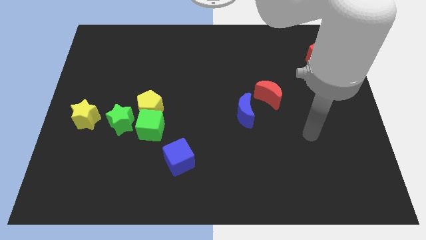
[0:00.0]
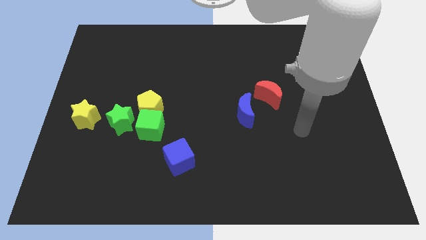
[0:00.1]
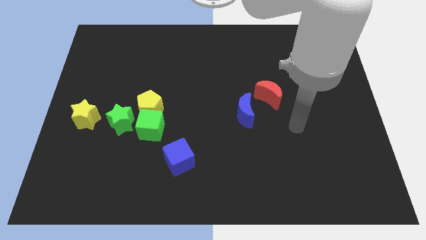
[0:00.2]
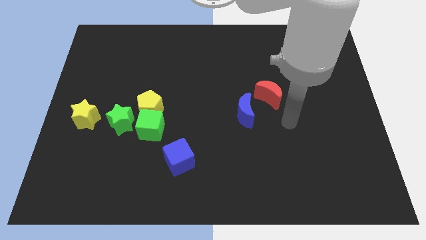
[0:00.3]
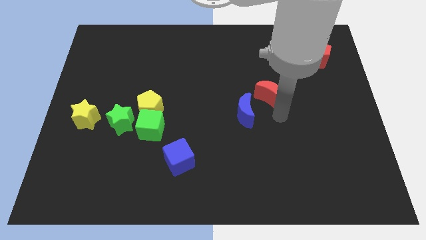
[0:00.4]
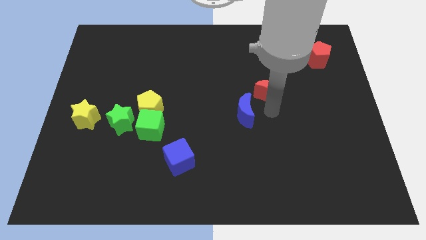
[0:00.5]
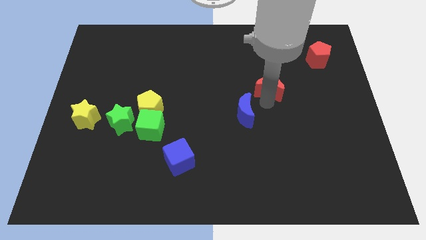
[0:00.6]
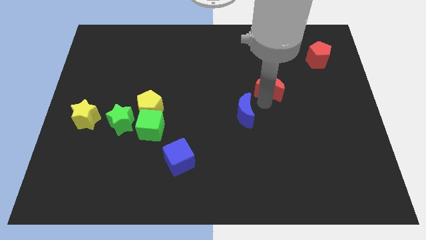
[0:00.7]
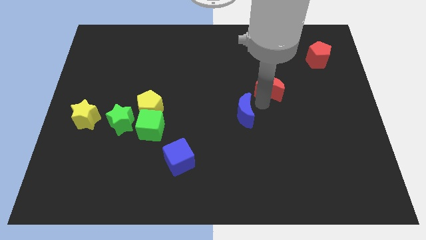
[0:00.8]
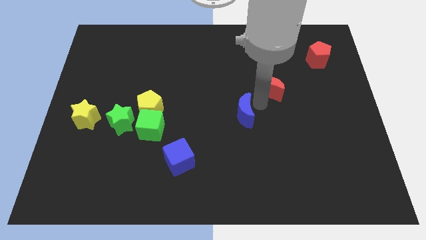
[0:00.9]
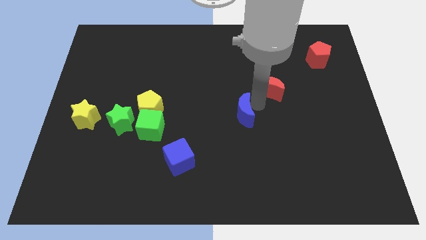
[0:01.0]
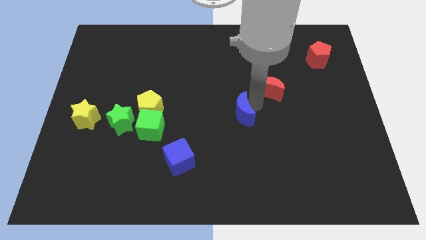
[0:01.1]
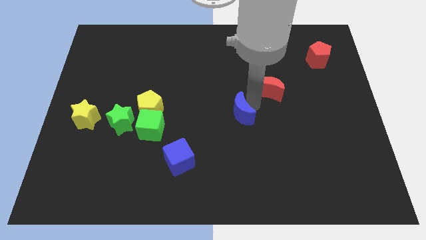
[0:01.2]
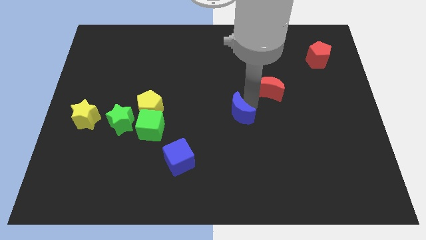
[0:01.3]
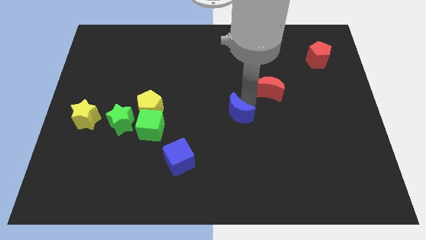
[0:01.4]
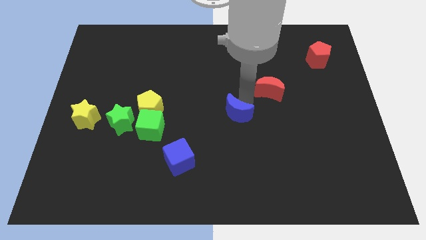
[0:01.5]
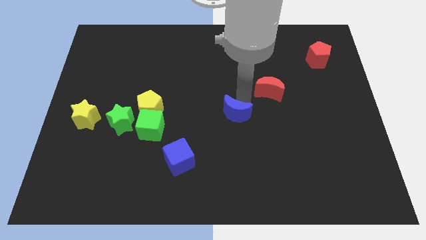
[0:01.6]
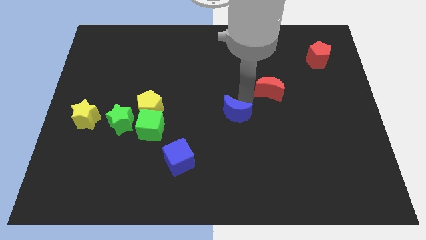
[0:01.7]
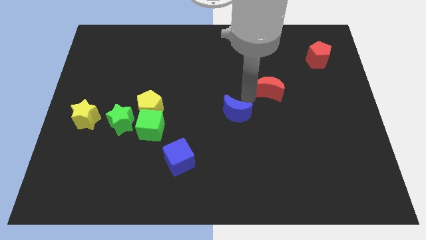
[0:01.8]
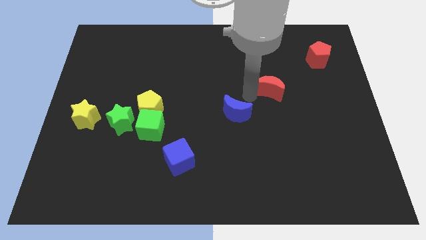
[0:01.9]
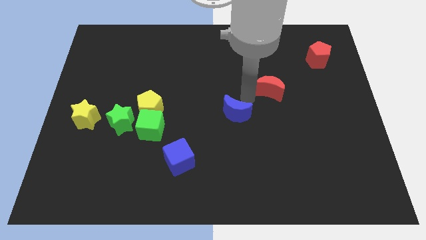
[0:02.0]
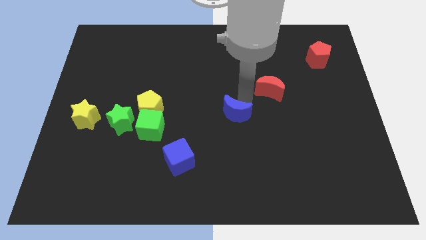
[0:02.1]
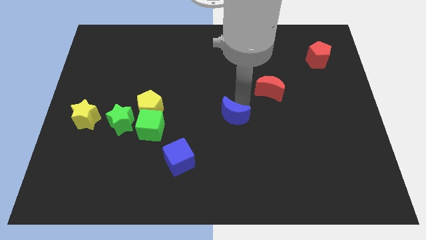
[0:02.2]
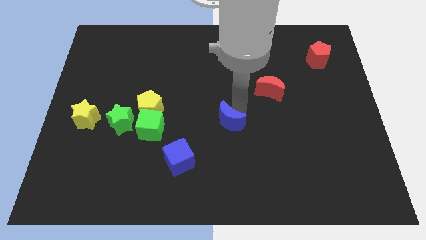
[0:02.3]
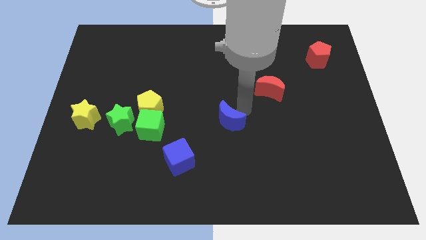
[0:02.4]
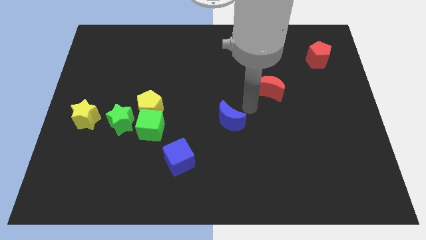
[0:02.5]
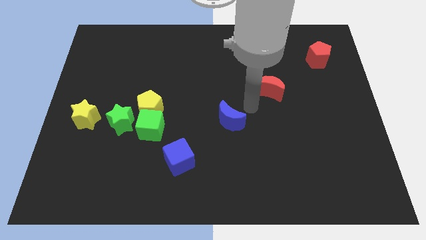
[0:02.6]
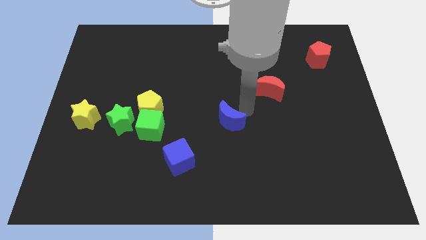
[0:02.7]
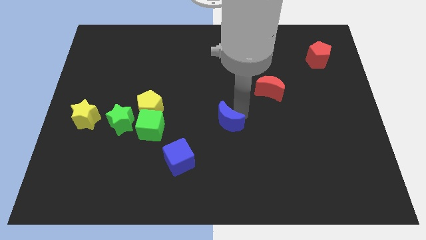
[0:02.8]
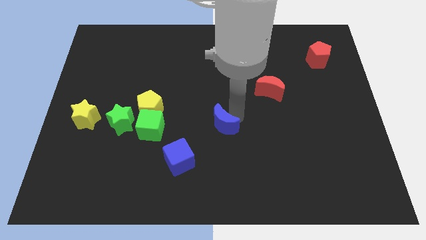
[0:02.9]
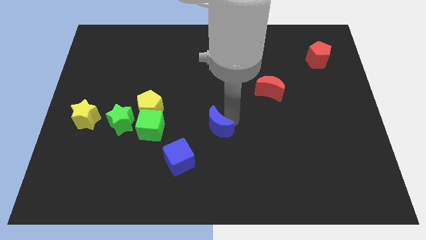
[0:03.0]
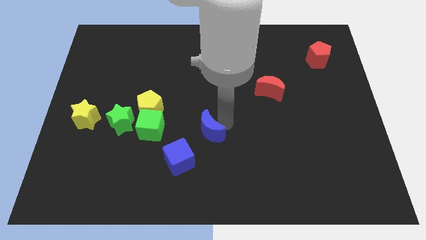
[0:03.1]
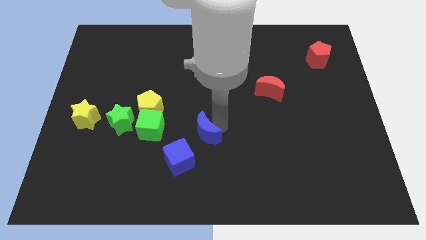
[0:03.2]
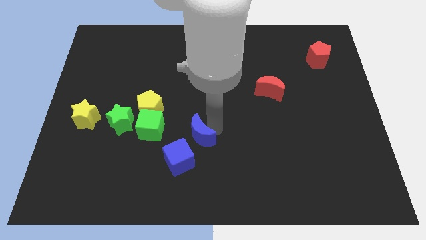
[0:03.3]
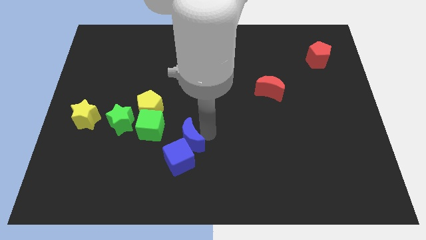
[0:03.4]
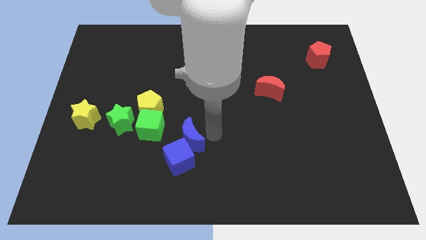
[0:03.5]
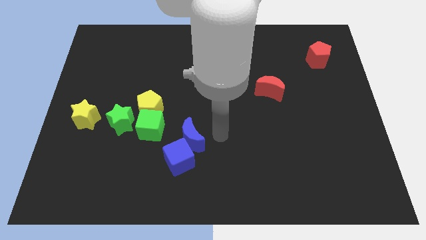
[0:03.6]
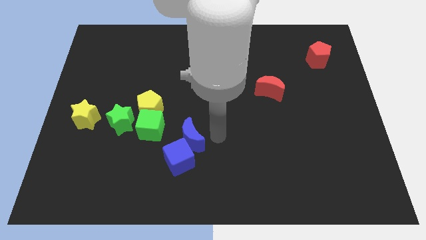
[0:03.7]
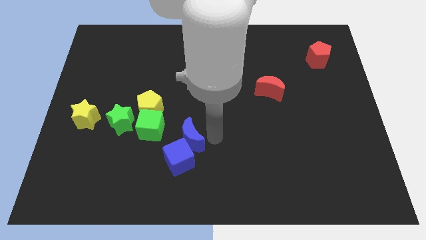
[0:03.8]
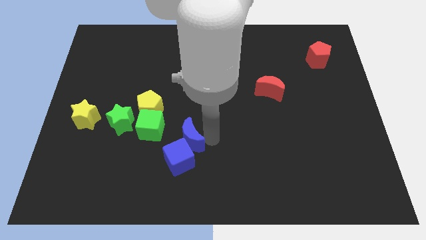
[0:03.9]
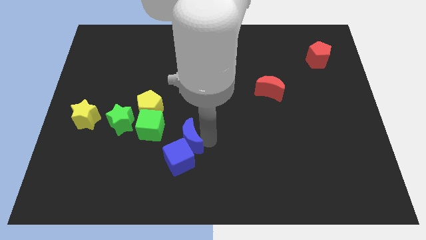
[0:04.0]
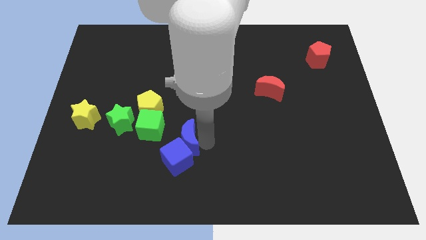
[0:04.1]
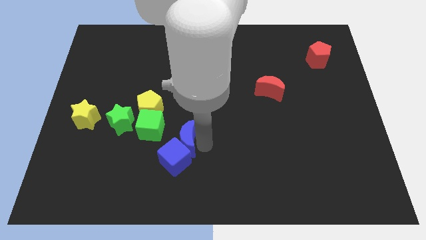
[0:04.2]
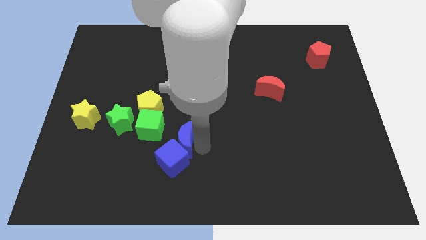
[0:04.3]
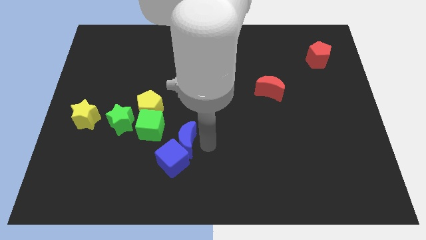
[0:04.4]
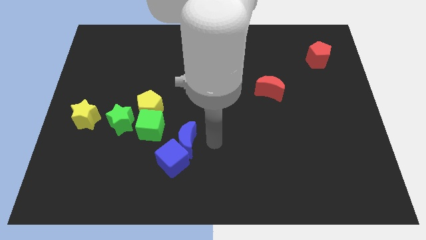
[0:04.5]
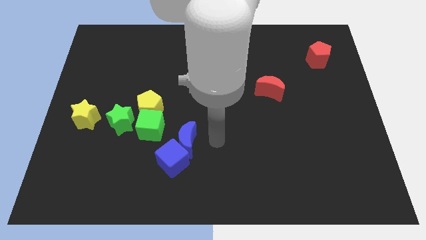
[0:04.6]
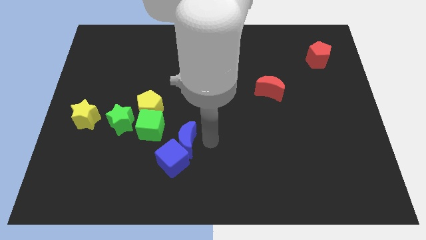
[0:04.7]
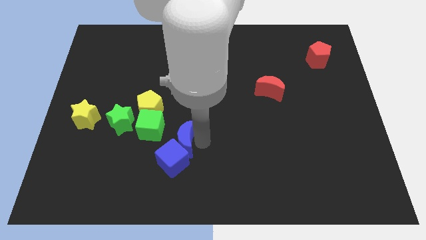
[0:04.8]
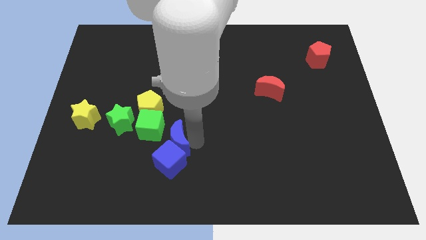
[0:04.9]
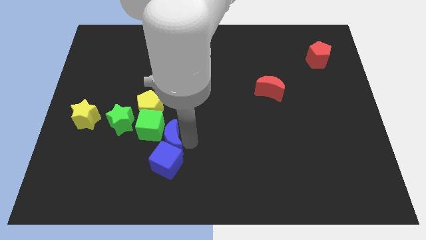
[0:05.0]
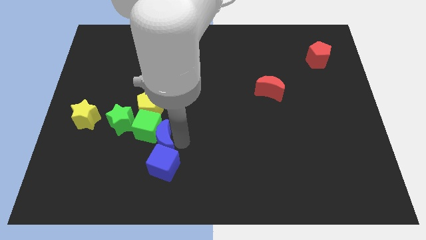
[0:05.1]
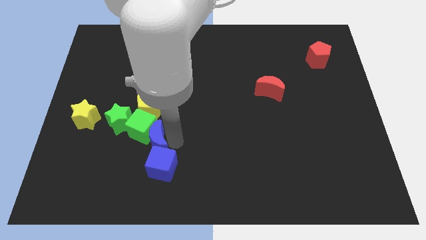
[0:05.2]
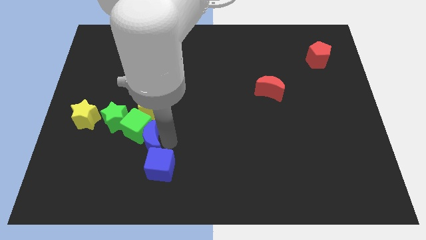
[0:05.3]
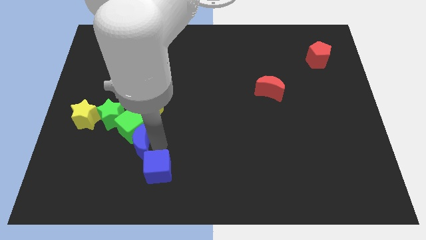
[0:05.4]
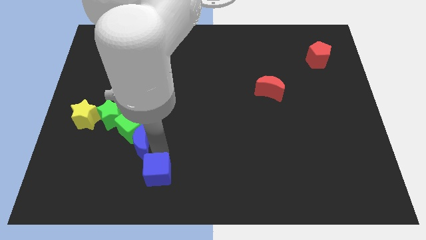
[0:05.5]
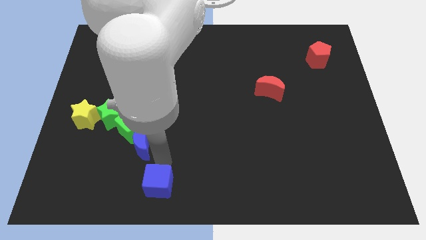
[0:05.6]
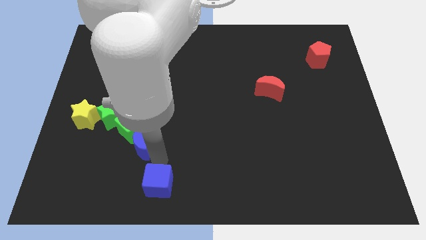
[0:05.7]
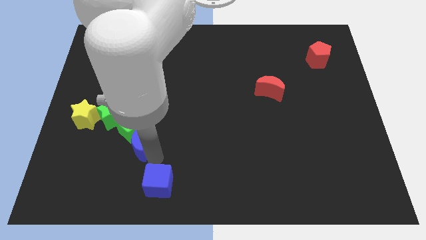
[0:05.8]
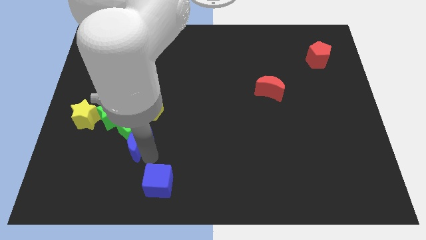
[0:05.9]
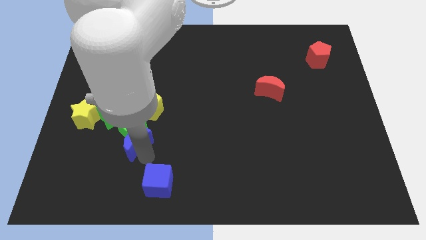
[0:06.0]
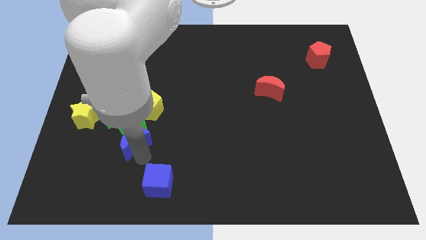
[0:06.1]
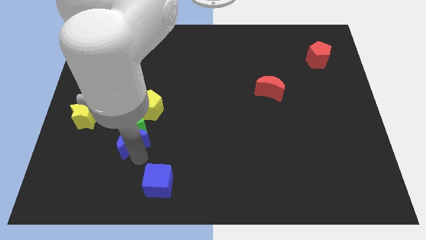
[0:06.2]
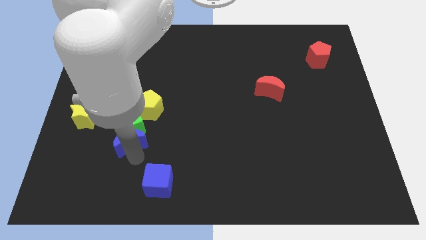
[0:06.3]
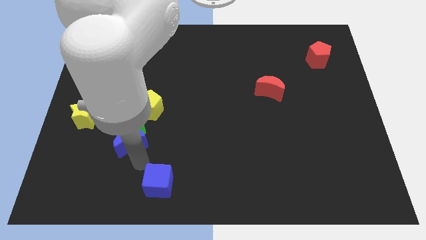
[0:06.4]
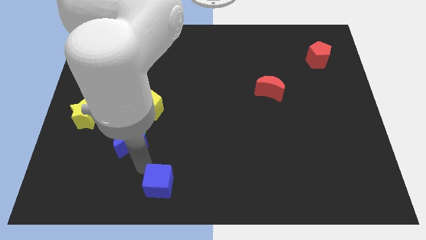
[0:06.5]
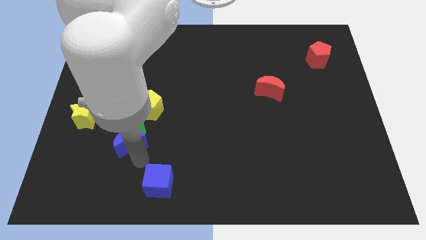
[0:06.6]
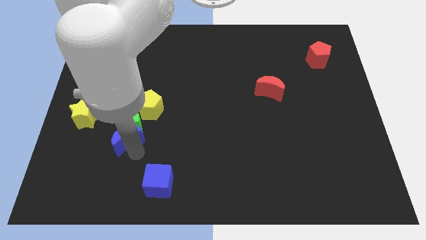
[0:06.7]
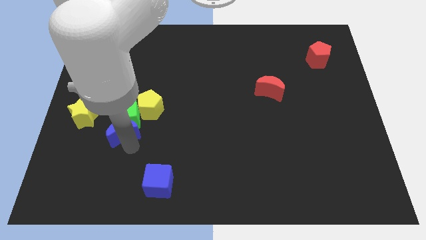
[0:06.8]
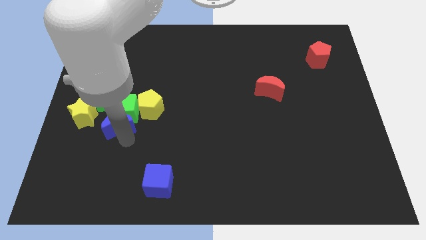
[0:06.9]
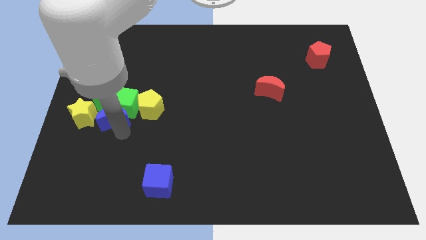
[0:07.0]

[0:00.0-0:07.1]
push the blue moon close to the green star

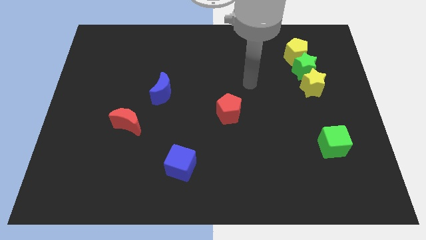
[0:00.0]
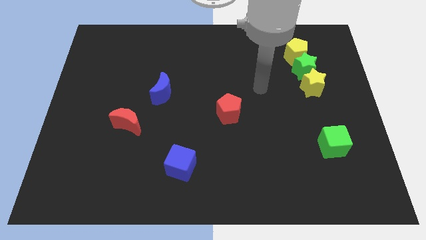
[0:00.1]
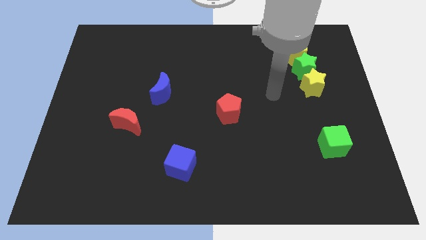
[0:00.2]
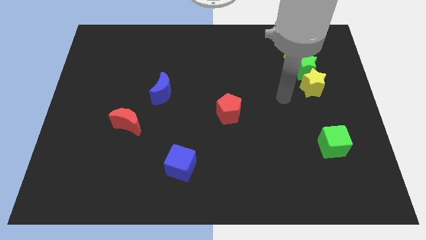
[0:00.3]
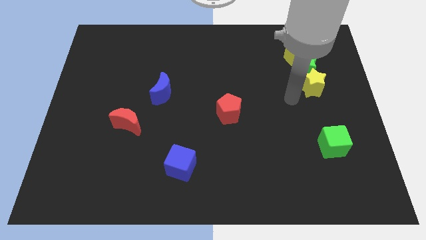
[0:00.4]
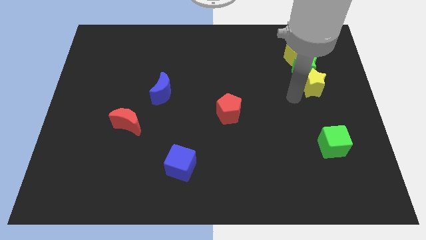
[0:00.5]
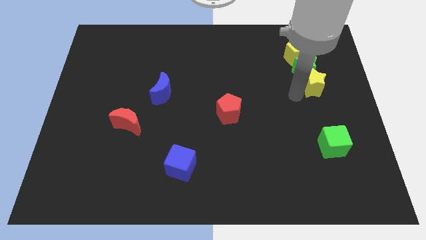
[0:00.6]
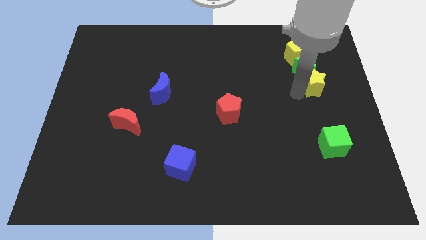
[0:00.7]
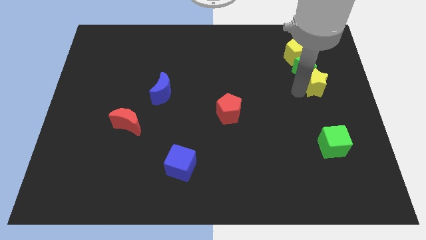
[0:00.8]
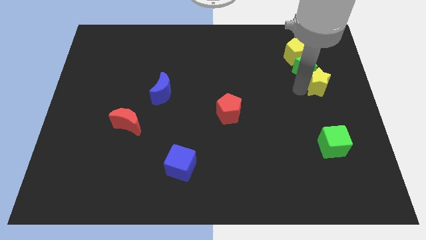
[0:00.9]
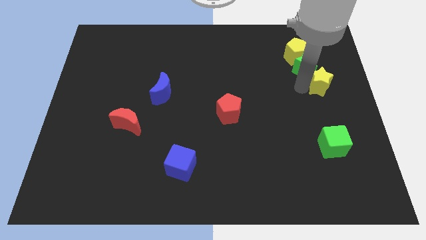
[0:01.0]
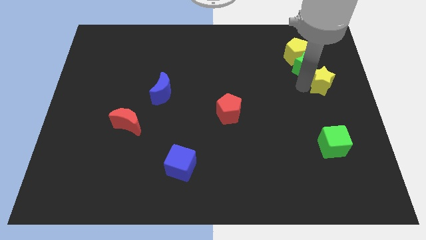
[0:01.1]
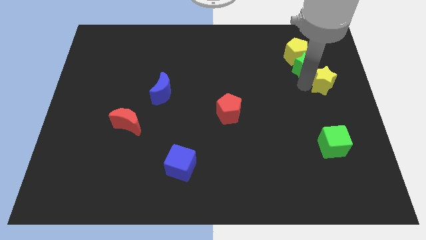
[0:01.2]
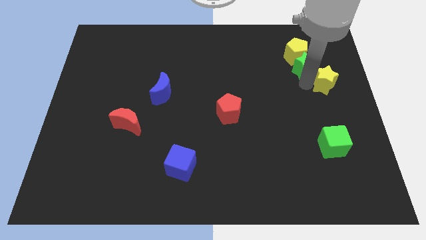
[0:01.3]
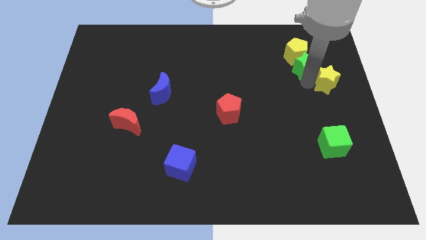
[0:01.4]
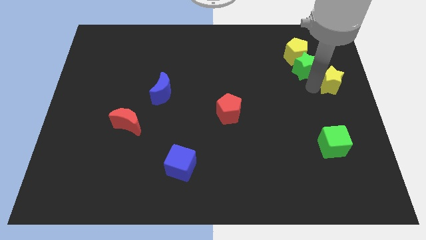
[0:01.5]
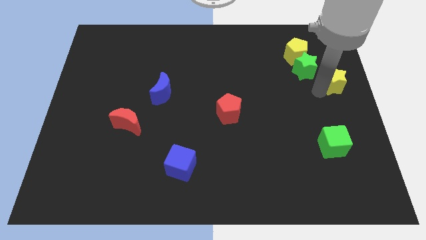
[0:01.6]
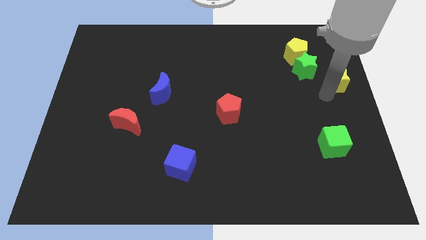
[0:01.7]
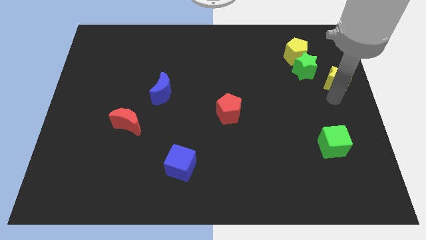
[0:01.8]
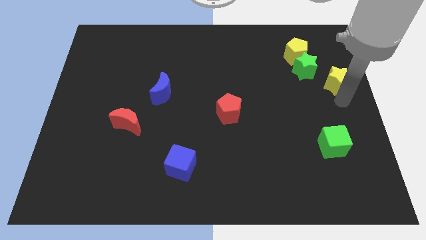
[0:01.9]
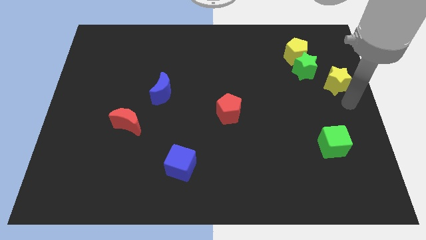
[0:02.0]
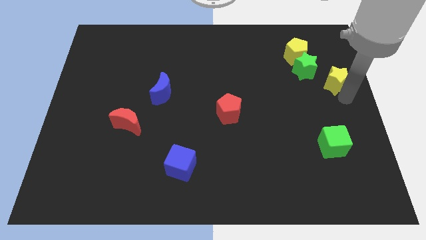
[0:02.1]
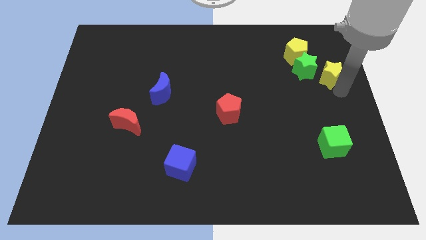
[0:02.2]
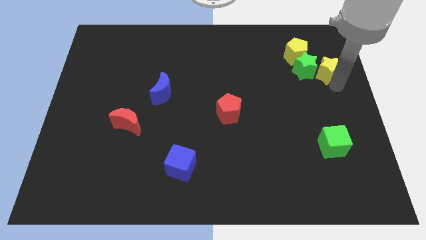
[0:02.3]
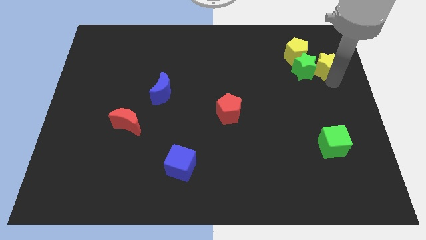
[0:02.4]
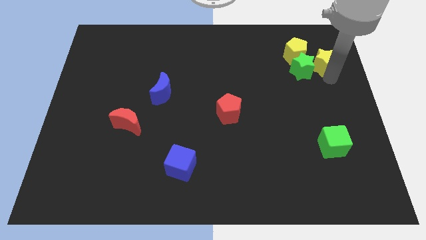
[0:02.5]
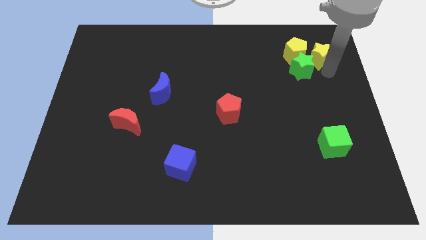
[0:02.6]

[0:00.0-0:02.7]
push the yellow star towards the yellow pentagon
